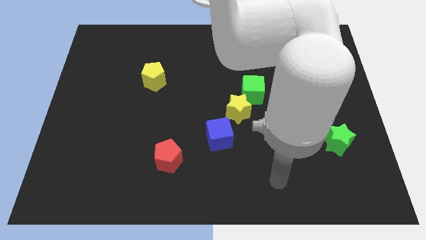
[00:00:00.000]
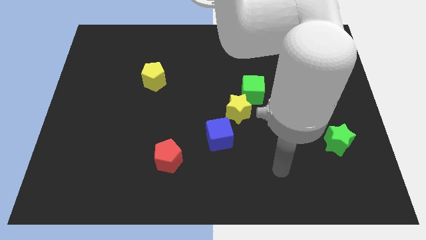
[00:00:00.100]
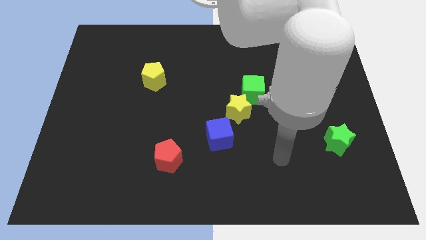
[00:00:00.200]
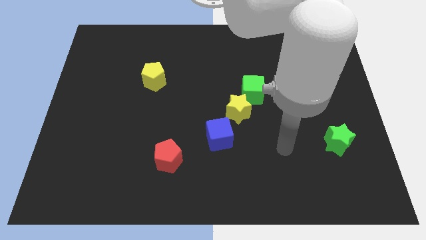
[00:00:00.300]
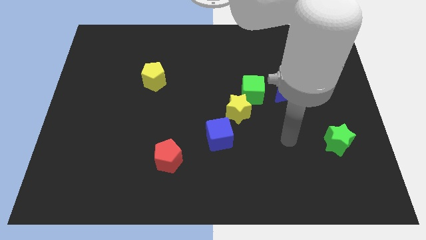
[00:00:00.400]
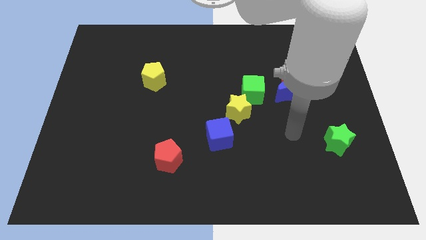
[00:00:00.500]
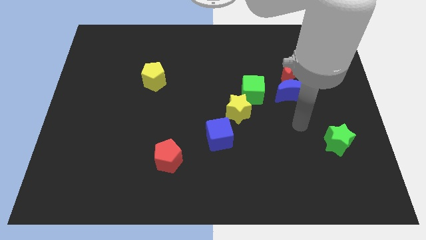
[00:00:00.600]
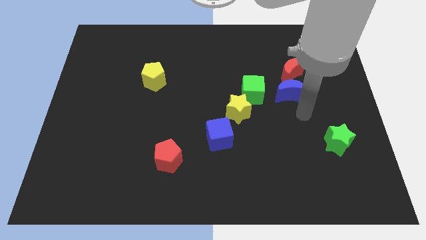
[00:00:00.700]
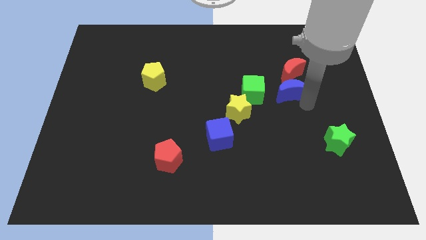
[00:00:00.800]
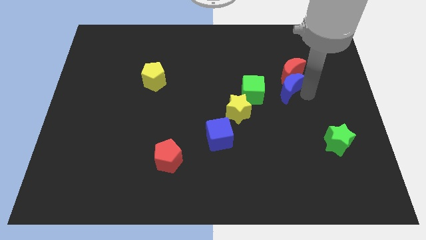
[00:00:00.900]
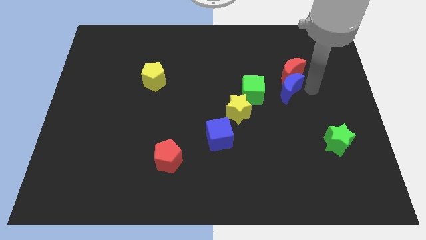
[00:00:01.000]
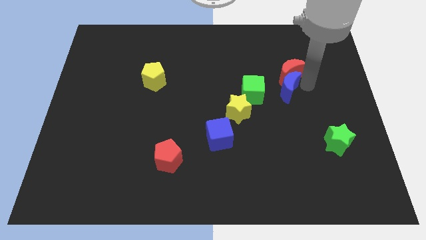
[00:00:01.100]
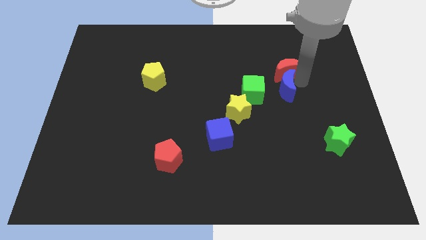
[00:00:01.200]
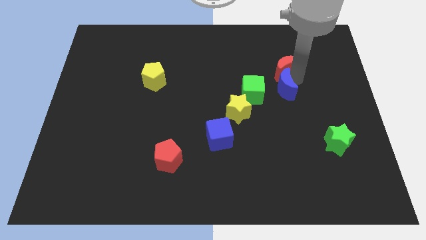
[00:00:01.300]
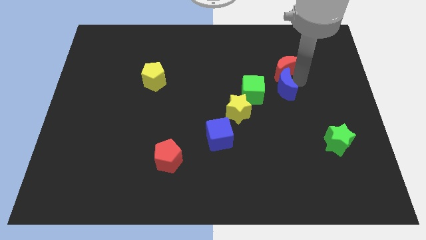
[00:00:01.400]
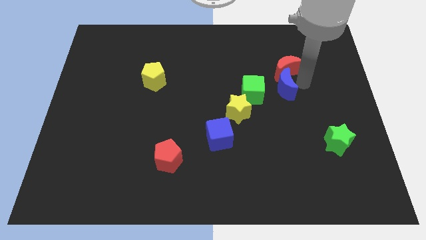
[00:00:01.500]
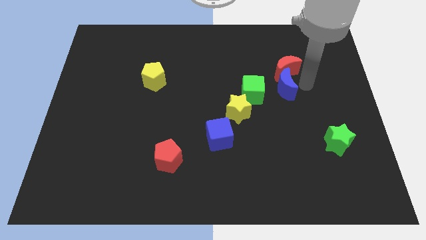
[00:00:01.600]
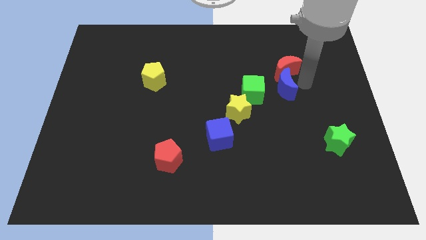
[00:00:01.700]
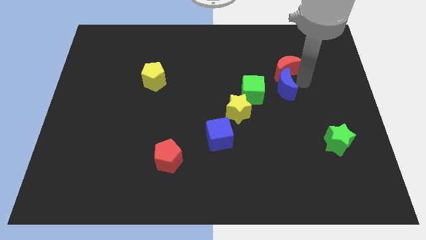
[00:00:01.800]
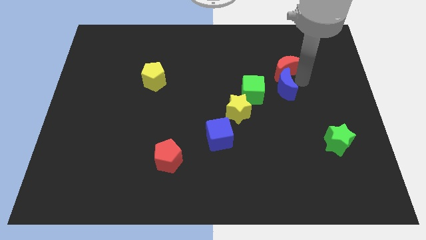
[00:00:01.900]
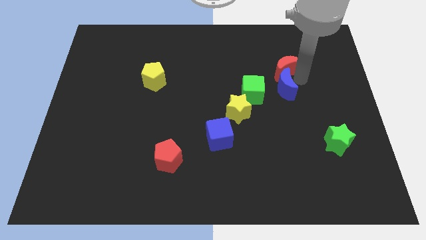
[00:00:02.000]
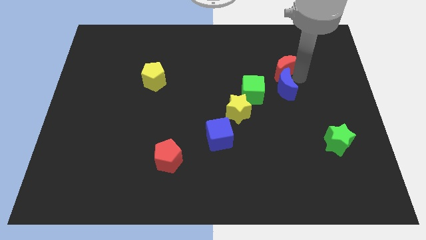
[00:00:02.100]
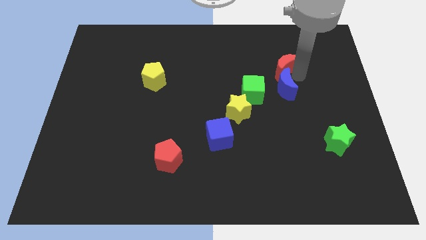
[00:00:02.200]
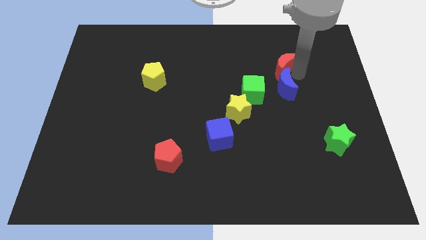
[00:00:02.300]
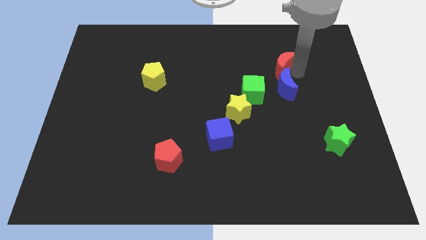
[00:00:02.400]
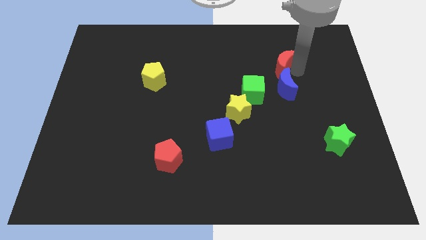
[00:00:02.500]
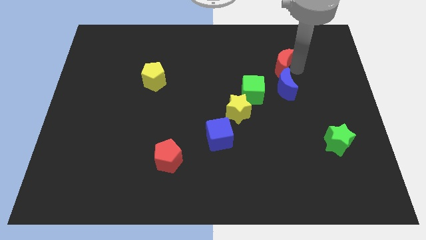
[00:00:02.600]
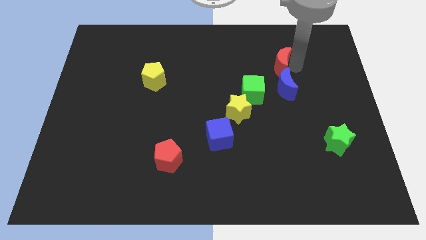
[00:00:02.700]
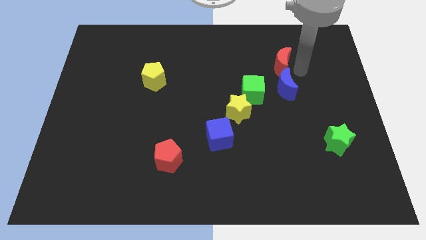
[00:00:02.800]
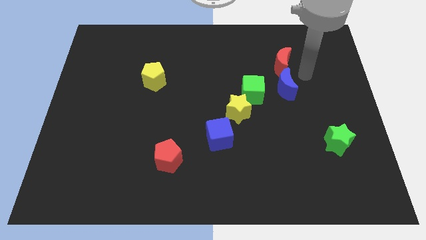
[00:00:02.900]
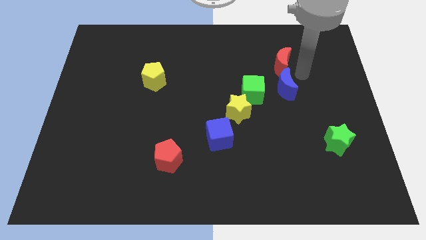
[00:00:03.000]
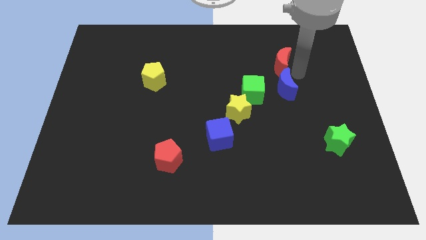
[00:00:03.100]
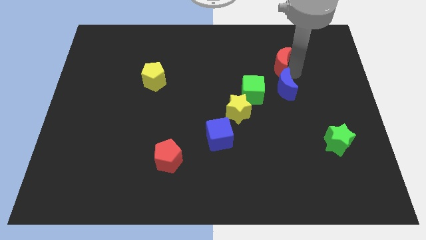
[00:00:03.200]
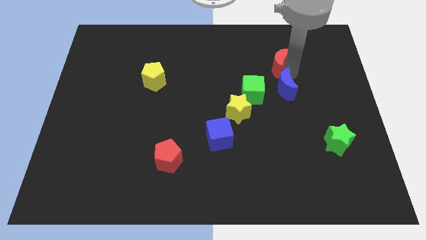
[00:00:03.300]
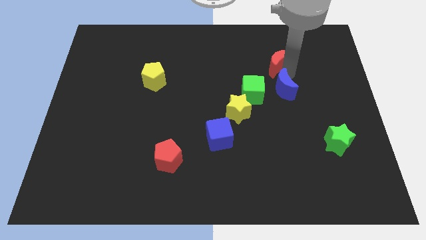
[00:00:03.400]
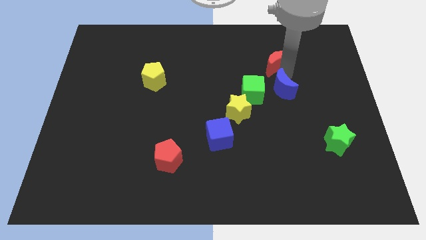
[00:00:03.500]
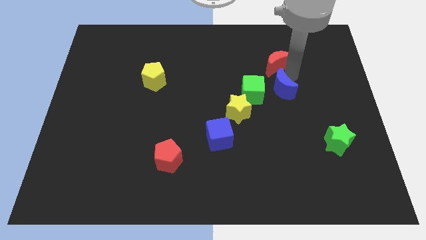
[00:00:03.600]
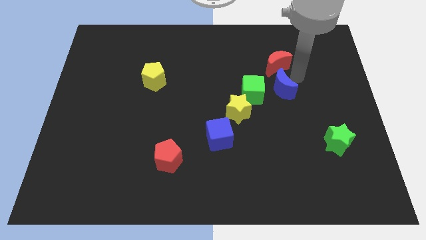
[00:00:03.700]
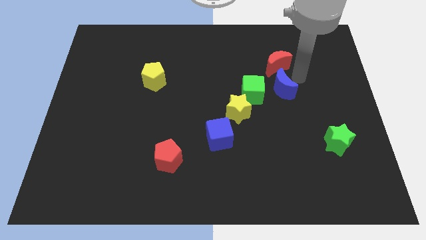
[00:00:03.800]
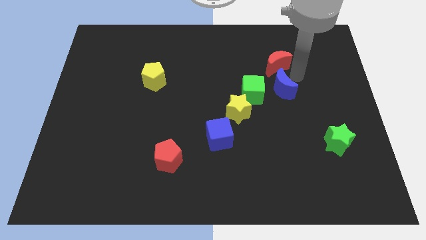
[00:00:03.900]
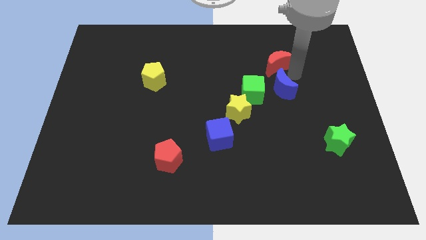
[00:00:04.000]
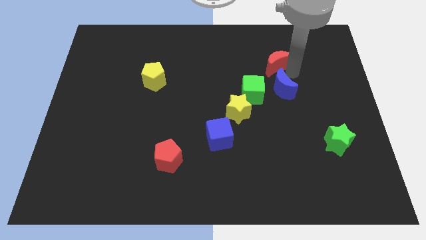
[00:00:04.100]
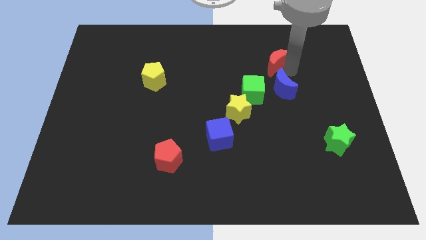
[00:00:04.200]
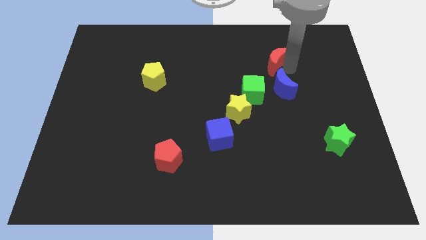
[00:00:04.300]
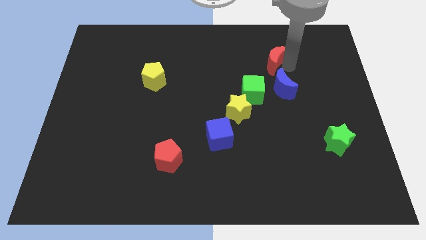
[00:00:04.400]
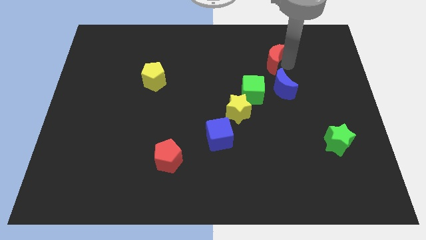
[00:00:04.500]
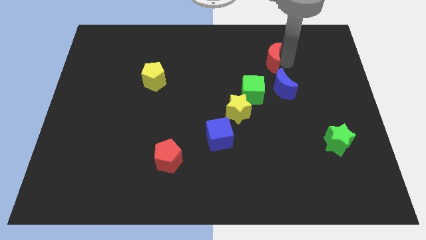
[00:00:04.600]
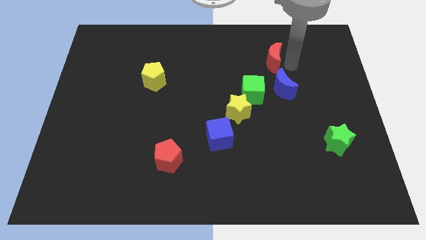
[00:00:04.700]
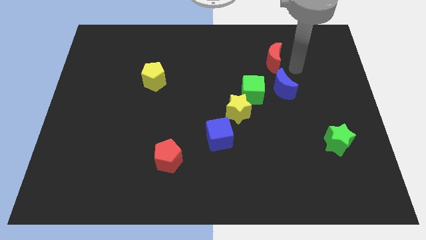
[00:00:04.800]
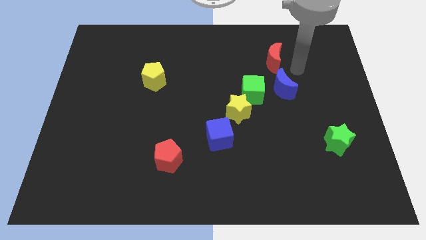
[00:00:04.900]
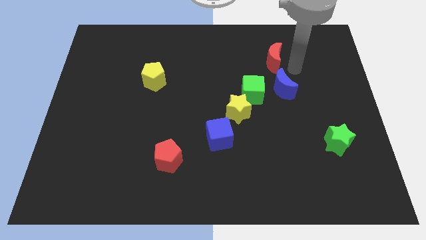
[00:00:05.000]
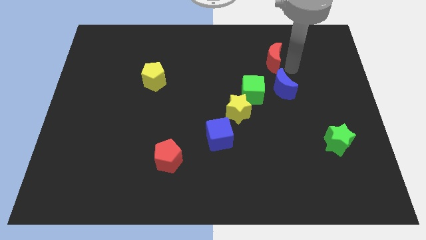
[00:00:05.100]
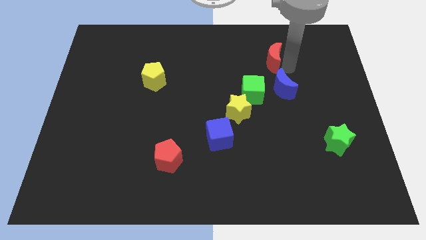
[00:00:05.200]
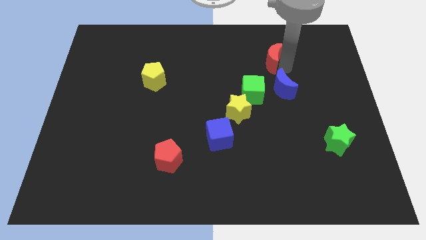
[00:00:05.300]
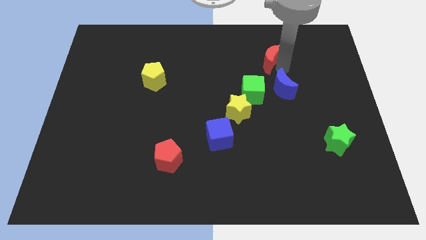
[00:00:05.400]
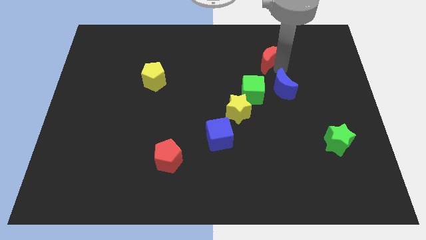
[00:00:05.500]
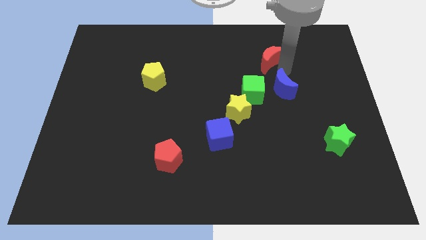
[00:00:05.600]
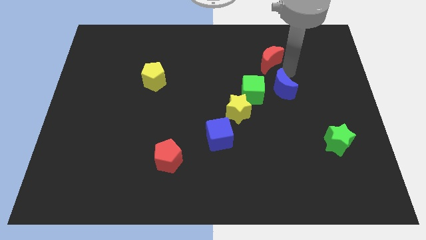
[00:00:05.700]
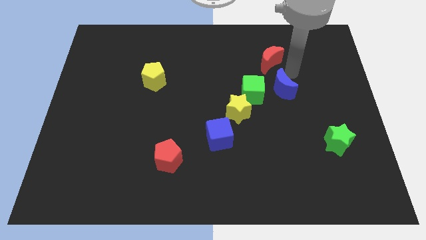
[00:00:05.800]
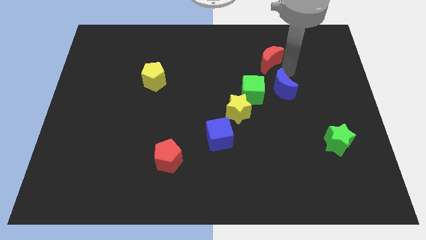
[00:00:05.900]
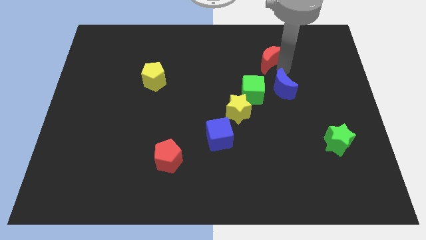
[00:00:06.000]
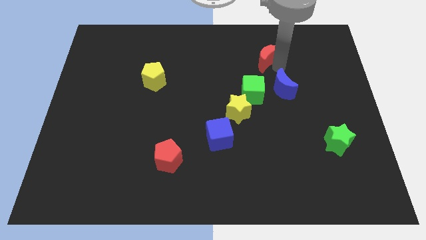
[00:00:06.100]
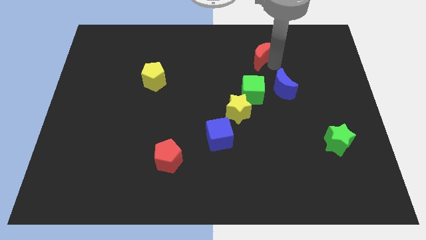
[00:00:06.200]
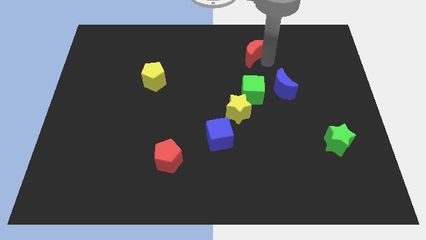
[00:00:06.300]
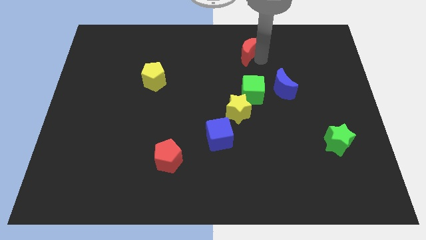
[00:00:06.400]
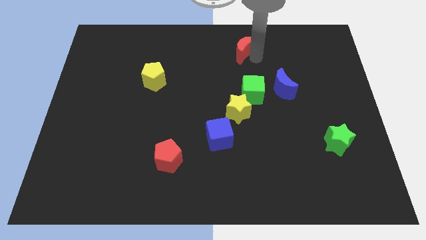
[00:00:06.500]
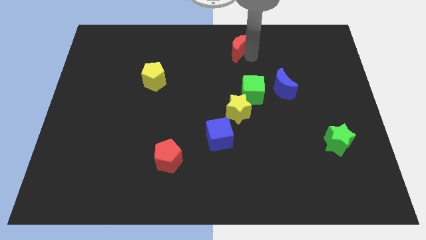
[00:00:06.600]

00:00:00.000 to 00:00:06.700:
push the red moon to the towards your base
